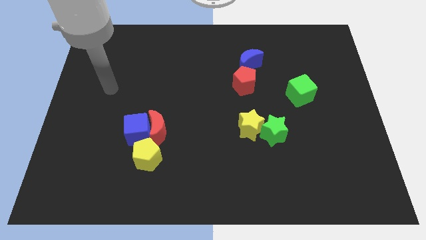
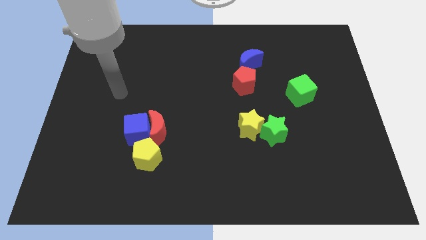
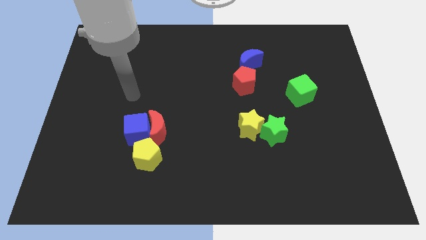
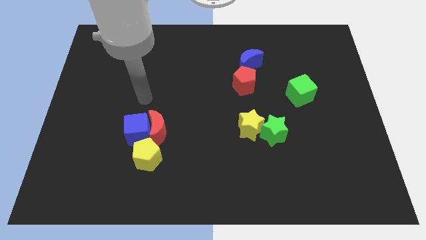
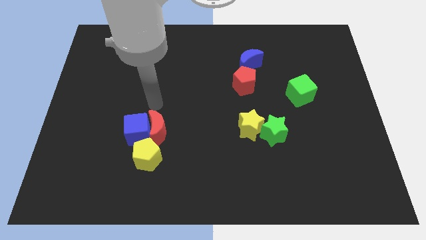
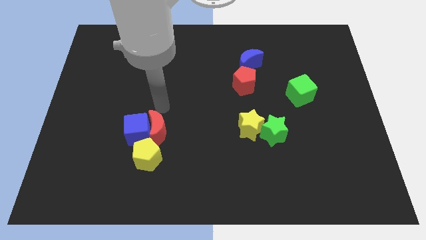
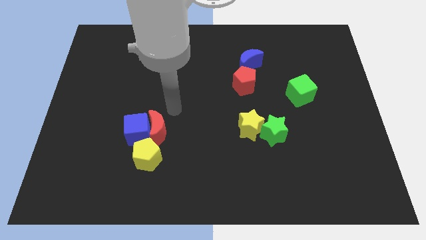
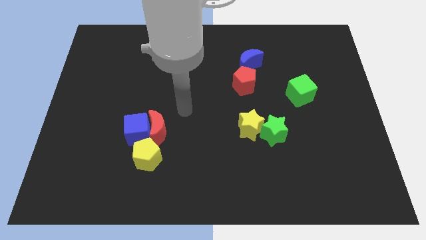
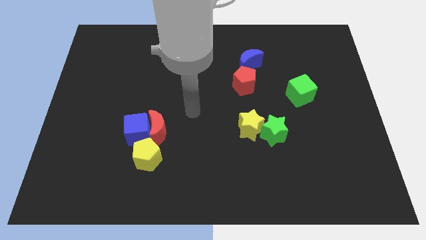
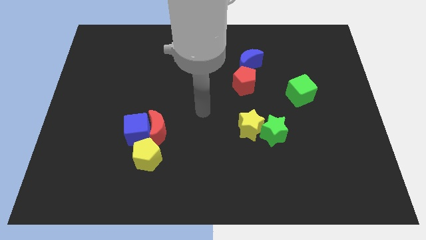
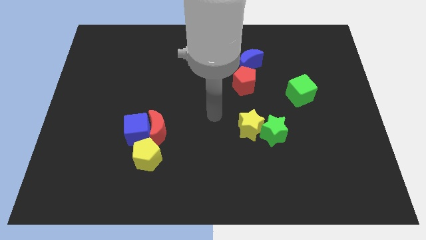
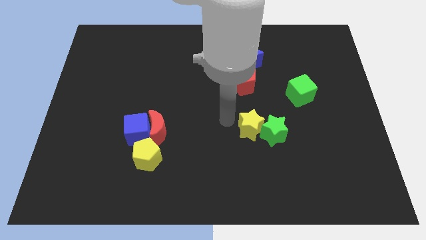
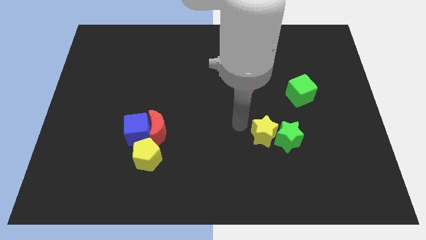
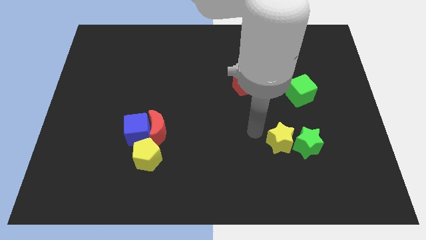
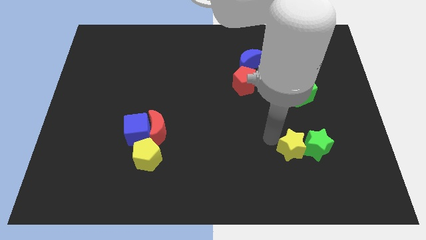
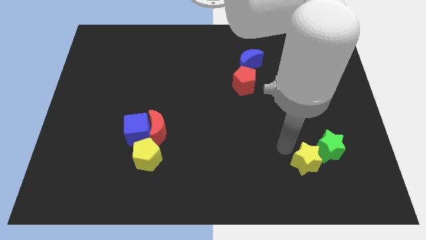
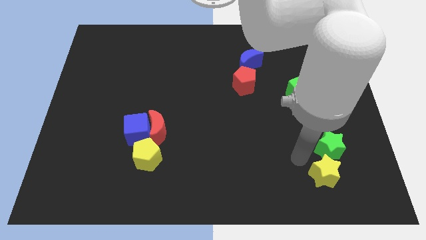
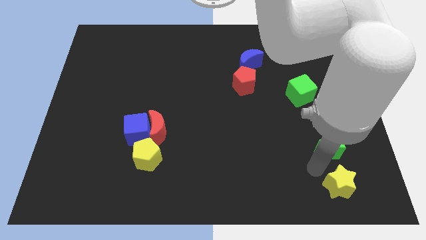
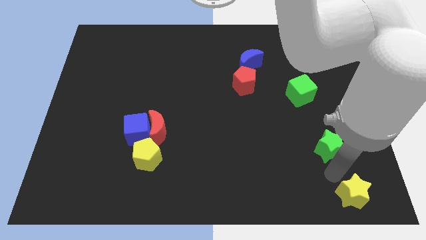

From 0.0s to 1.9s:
separate the green star from the yellow star

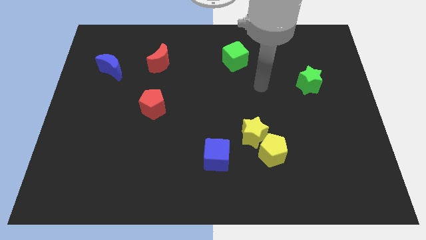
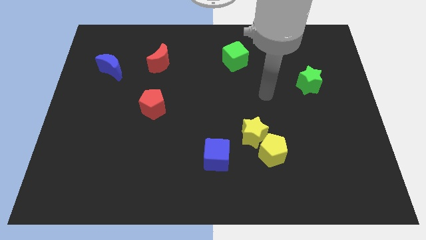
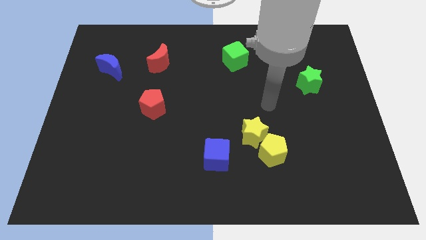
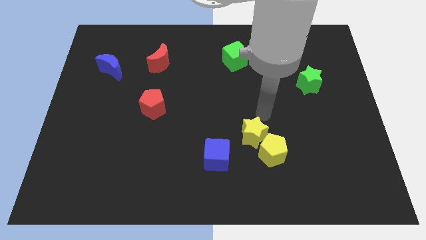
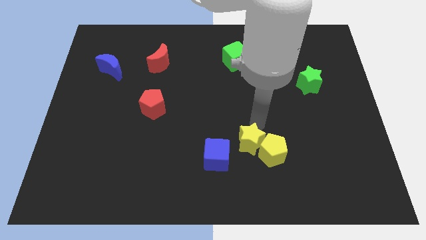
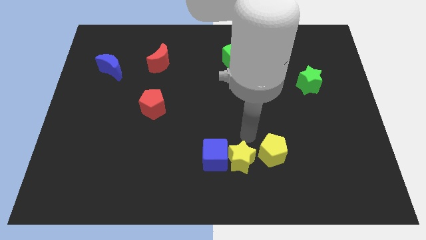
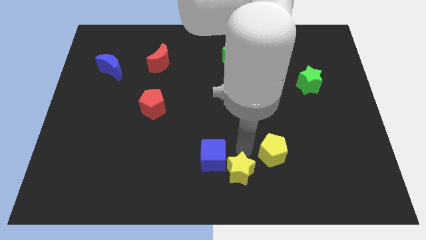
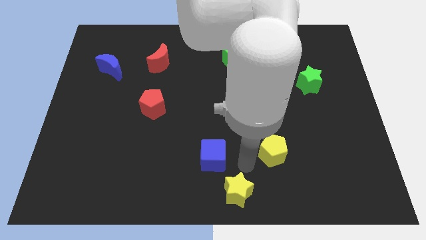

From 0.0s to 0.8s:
separate the yellow pentagon from the yellow star

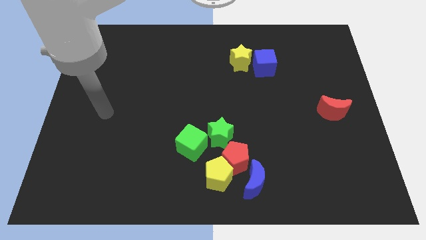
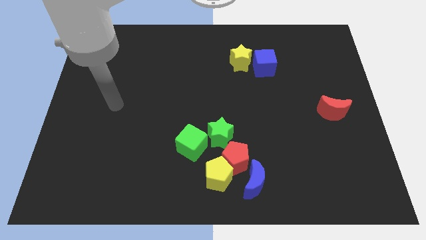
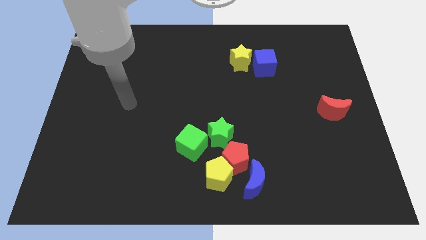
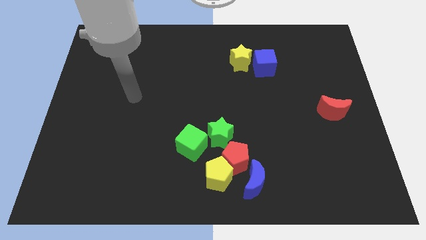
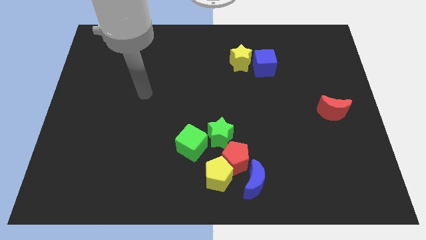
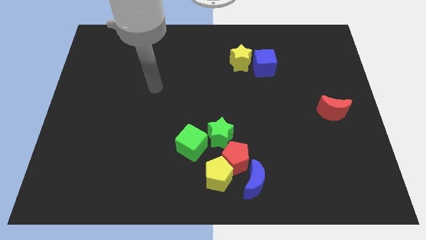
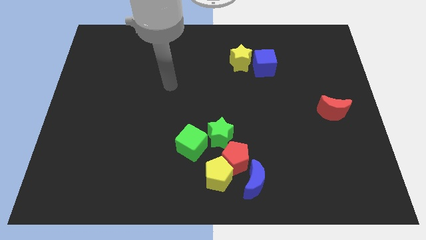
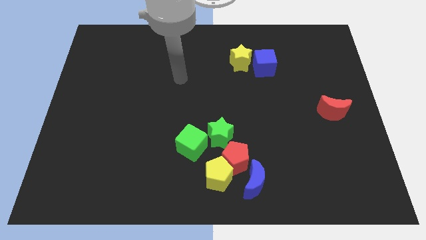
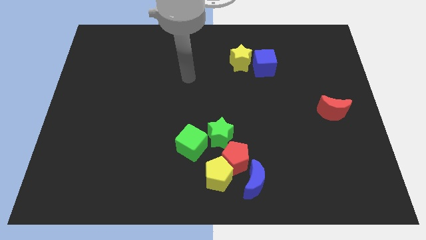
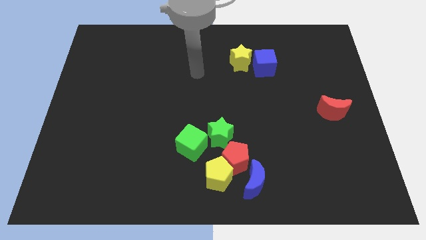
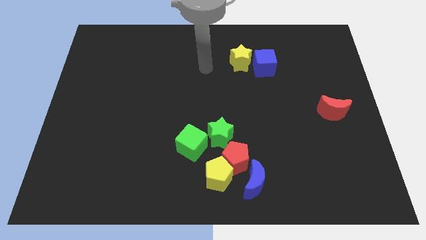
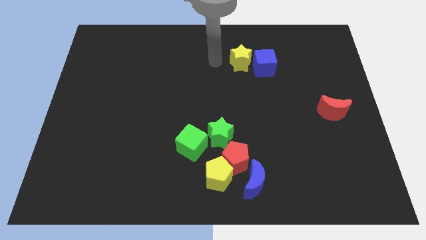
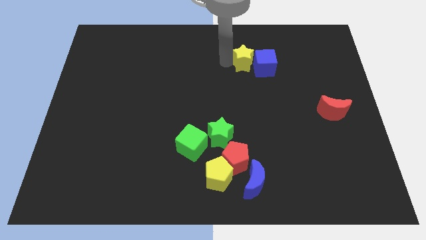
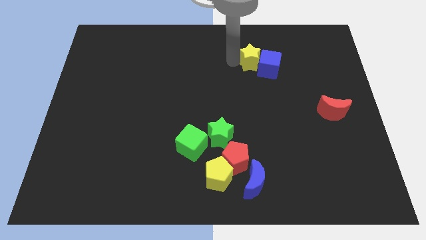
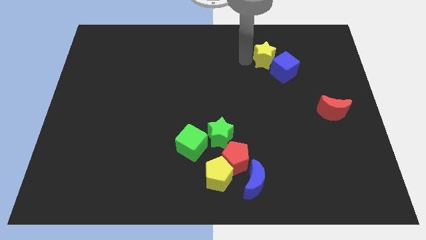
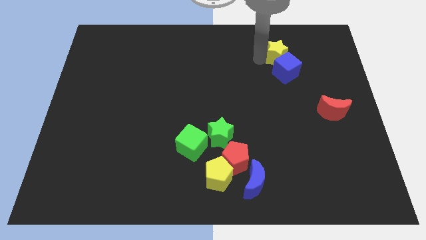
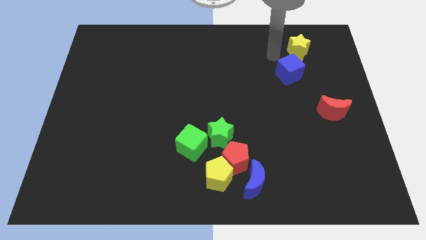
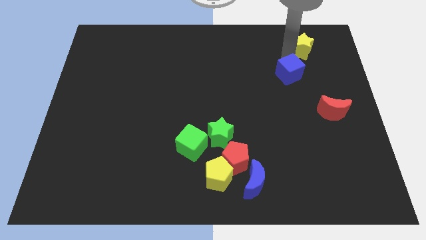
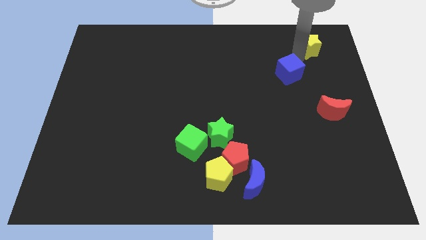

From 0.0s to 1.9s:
move the blue cube away from the yellow star

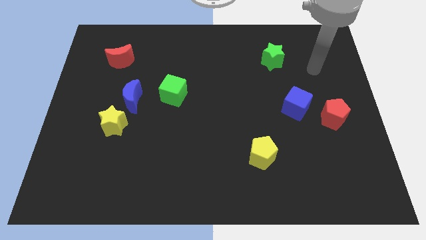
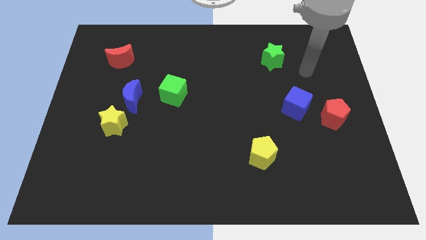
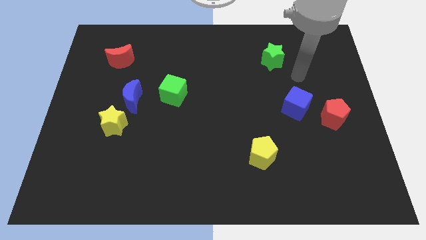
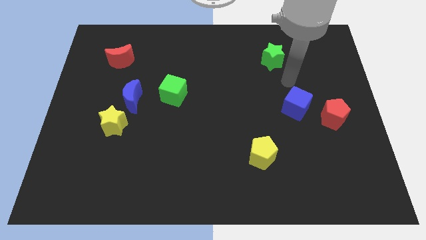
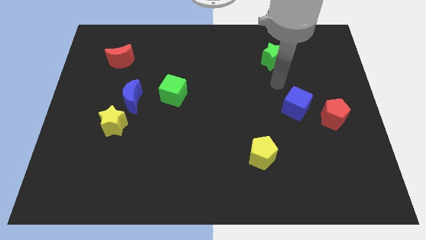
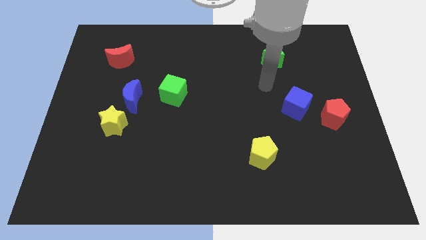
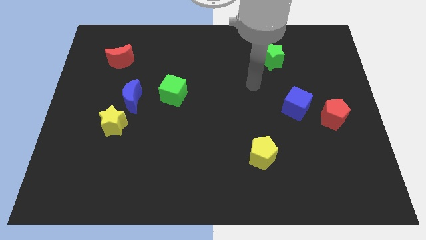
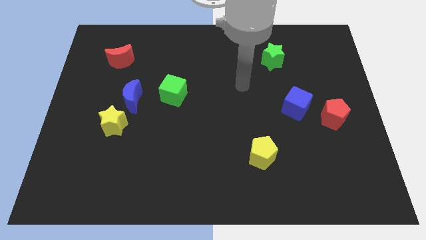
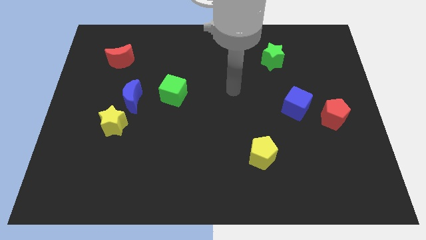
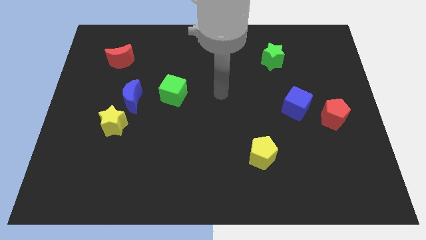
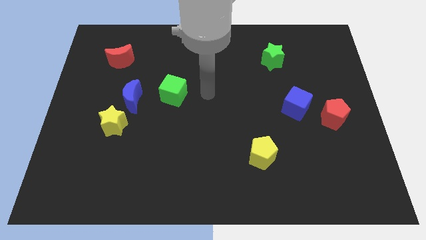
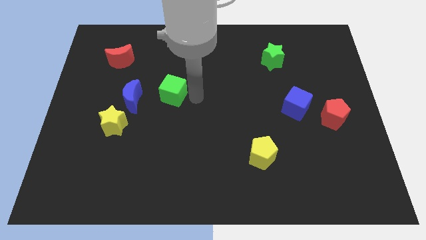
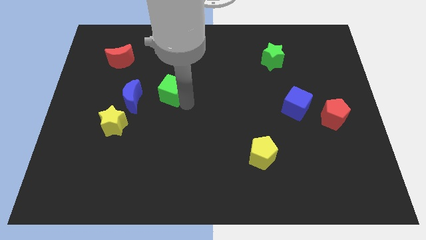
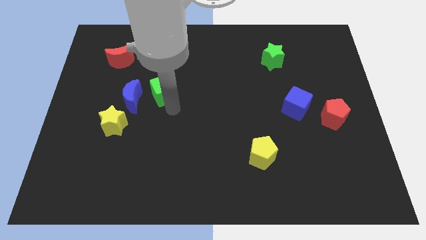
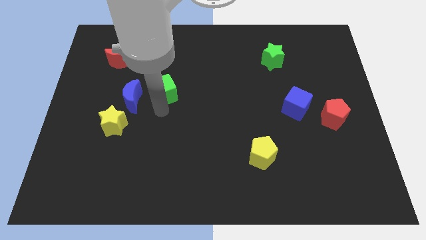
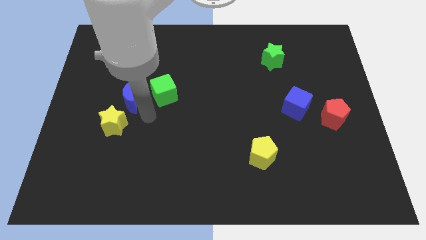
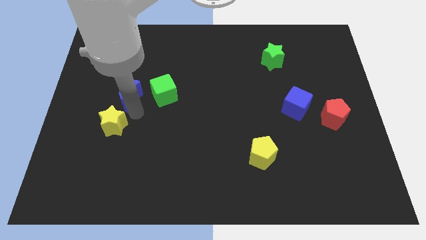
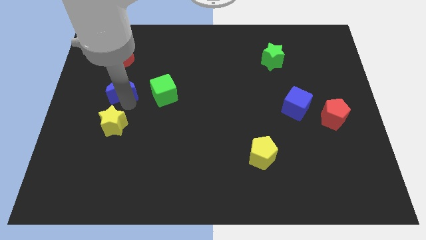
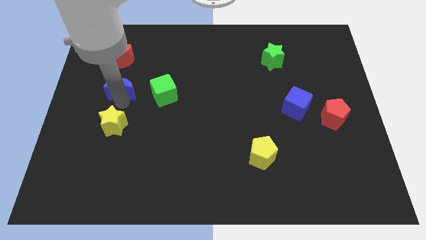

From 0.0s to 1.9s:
pull the yellow star apart from the blue moon

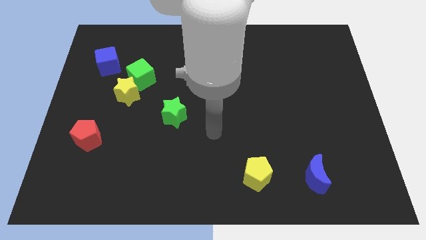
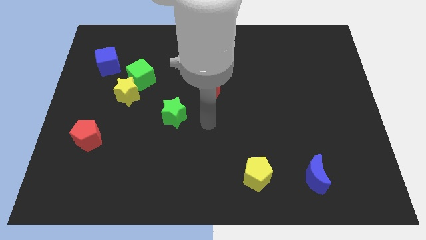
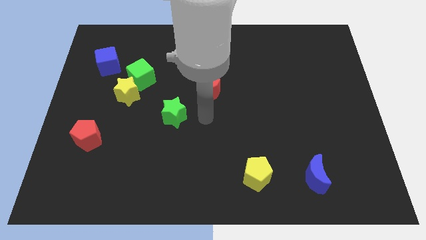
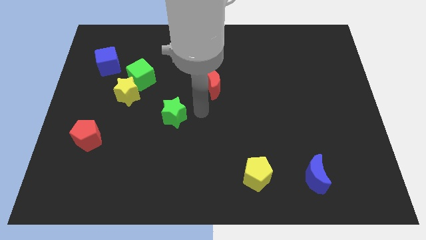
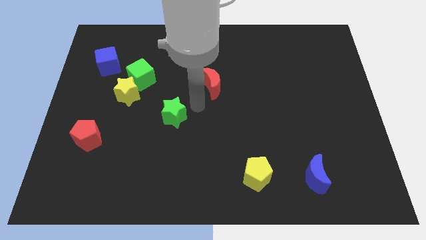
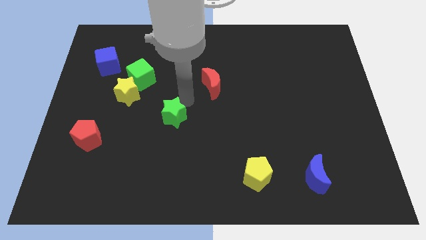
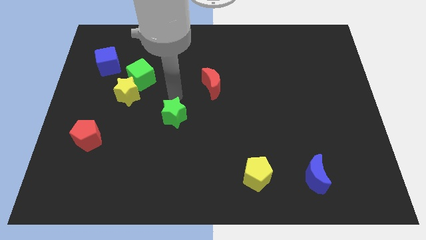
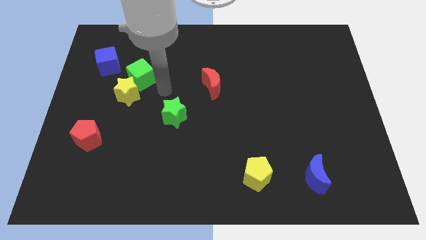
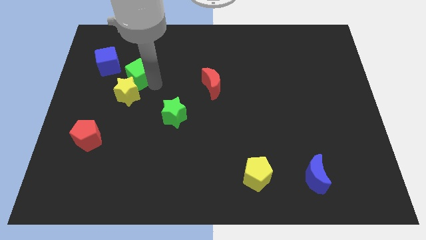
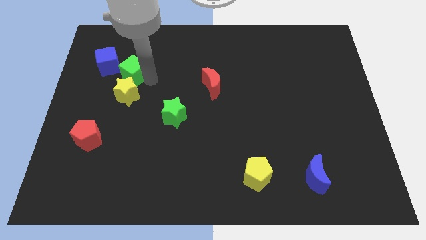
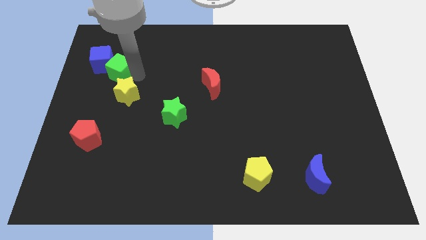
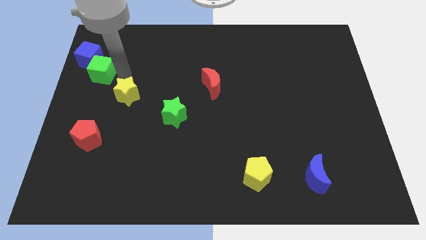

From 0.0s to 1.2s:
separate the yellow star from the green cube

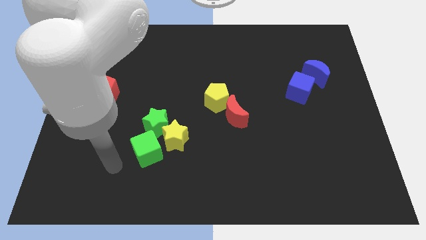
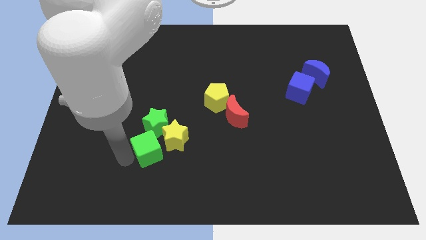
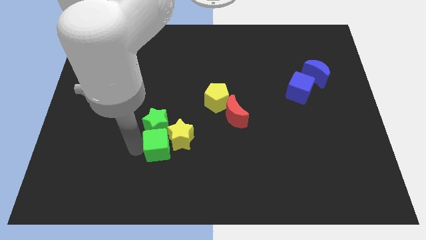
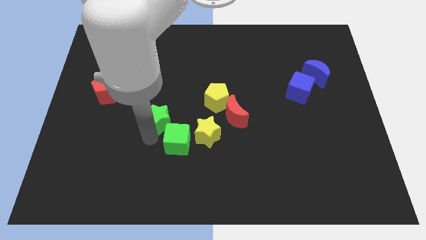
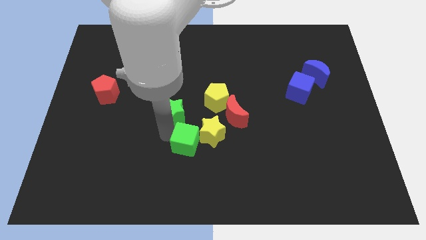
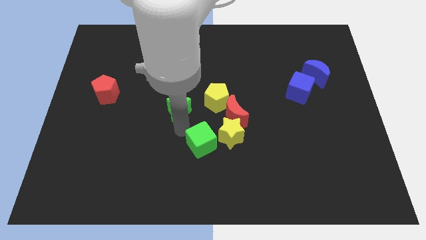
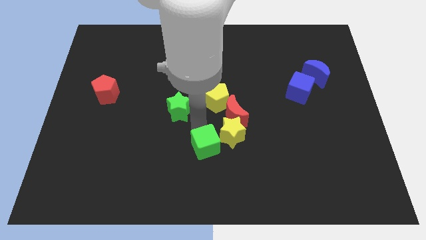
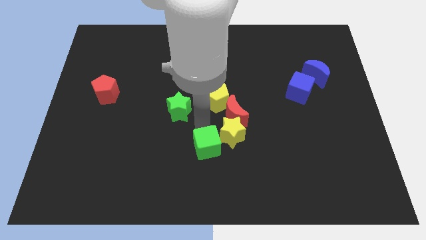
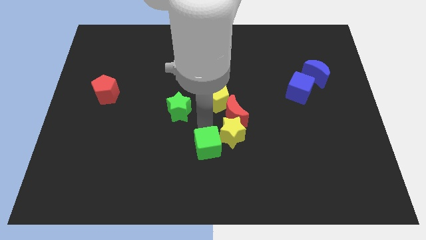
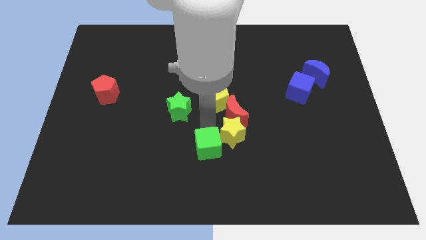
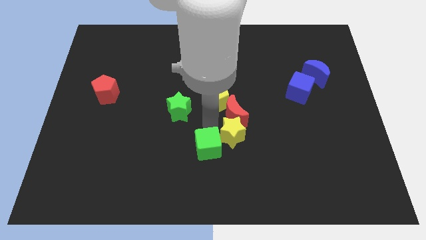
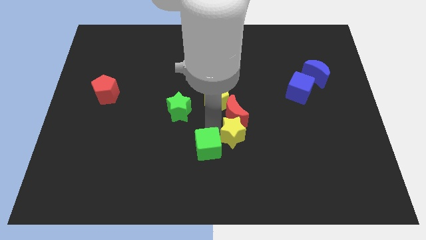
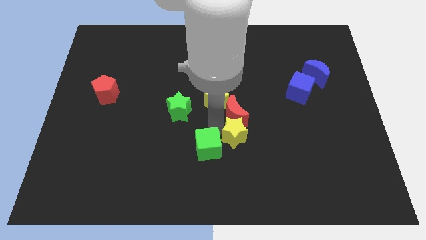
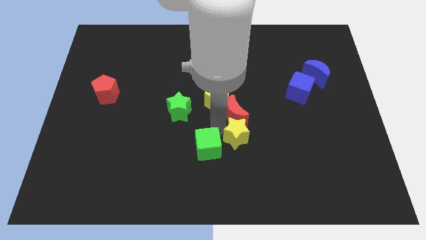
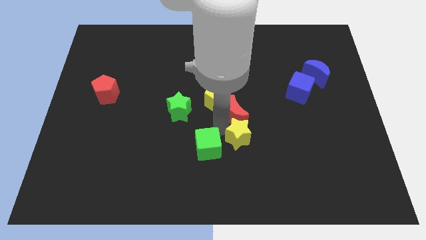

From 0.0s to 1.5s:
move the yellow star away from the green star and green cube

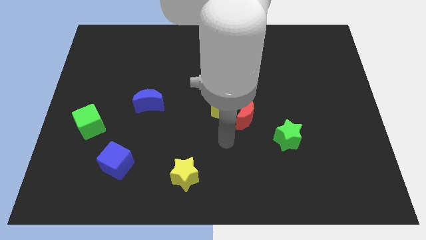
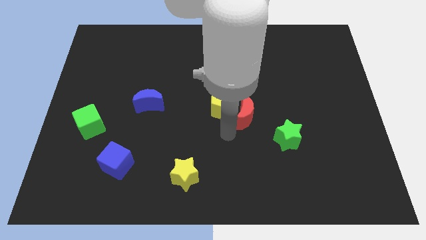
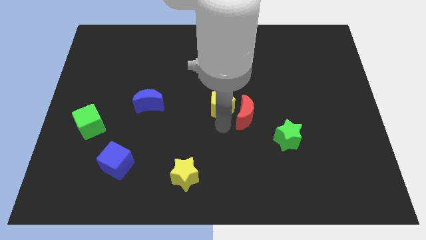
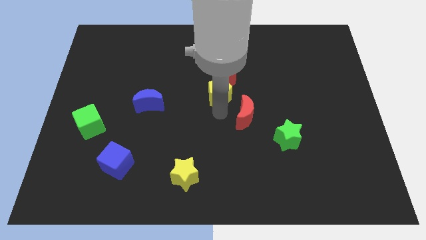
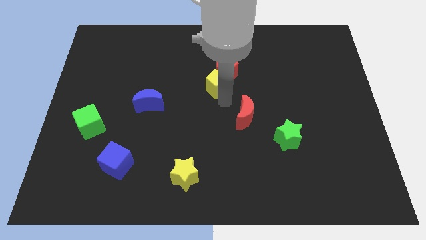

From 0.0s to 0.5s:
separate the red moon from the yellow pentagon
